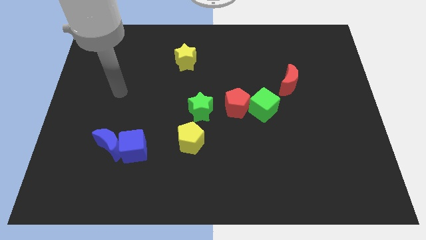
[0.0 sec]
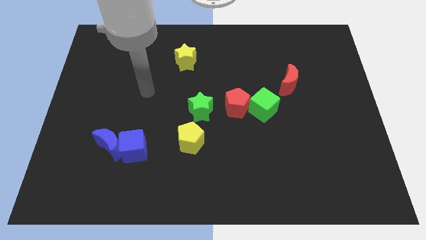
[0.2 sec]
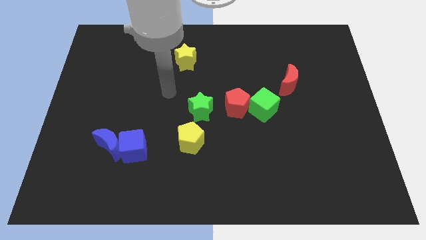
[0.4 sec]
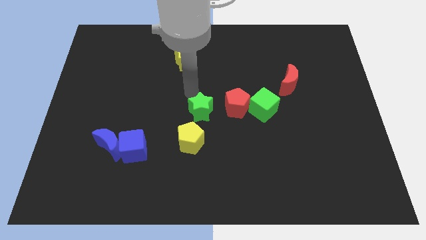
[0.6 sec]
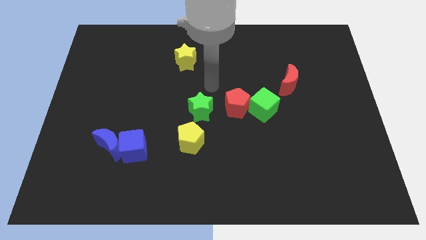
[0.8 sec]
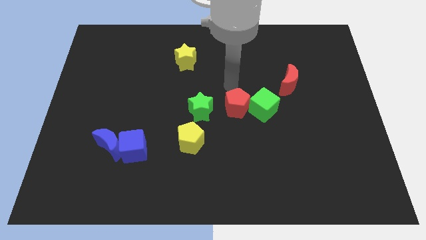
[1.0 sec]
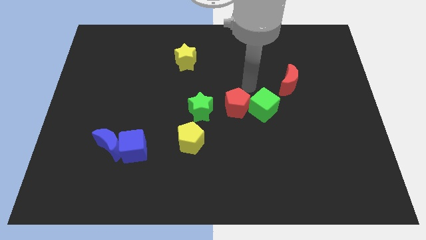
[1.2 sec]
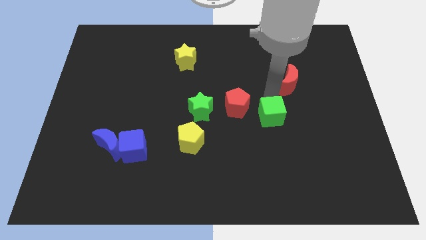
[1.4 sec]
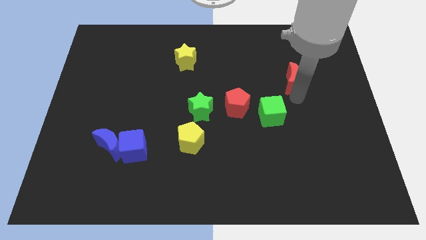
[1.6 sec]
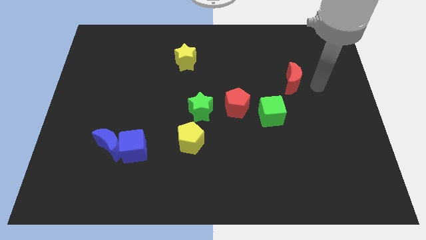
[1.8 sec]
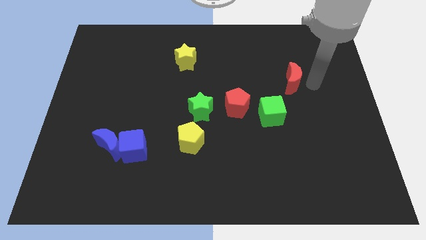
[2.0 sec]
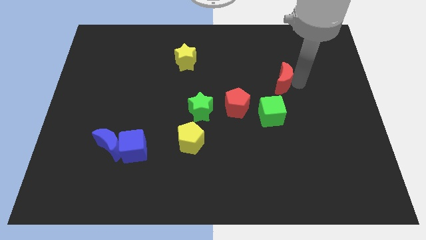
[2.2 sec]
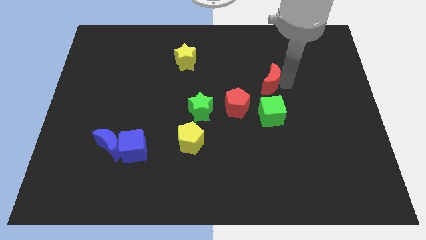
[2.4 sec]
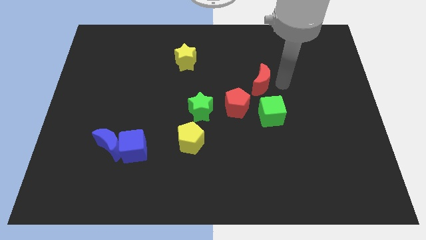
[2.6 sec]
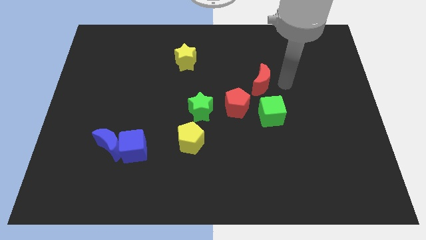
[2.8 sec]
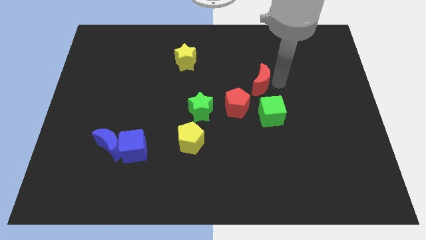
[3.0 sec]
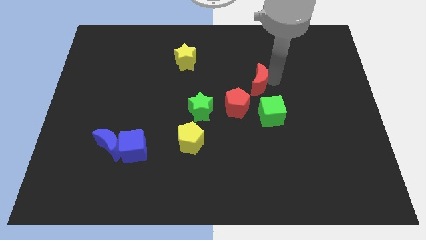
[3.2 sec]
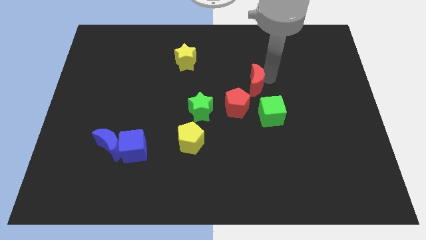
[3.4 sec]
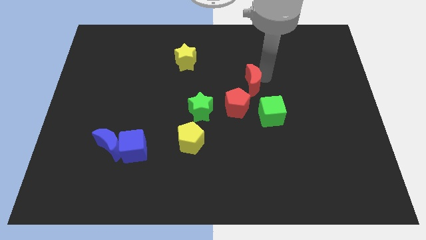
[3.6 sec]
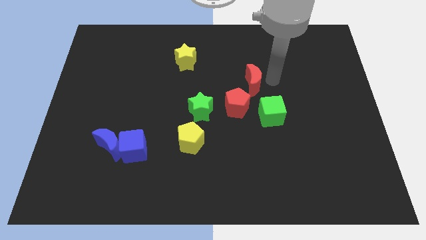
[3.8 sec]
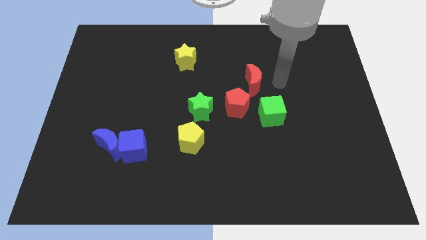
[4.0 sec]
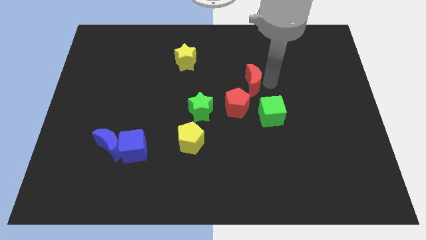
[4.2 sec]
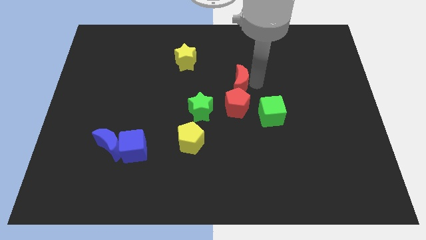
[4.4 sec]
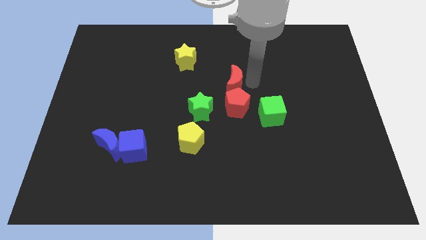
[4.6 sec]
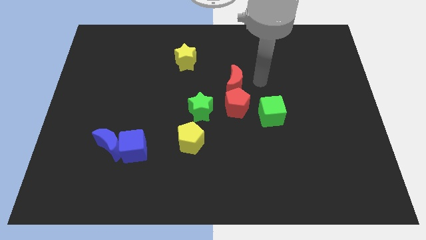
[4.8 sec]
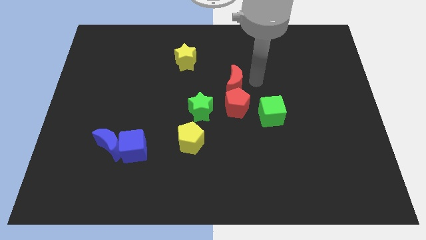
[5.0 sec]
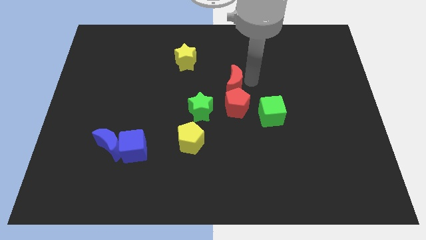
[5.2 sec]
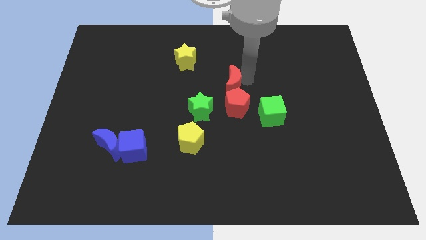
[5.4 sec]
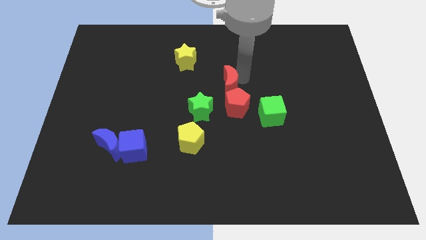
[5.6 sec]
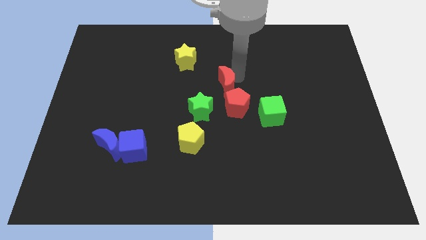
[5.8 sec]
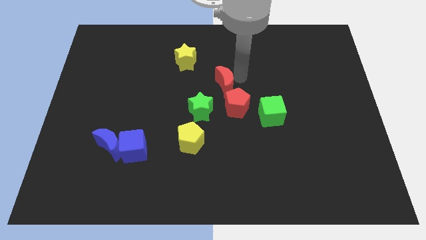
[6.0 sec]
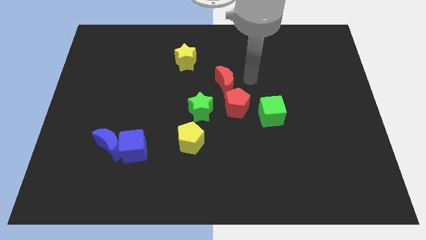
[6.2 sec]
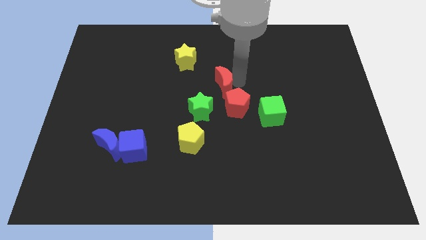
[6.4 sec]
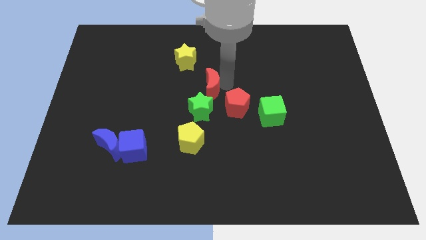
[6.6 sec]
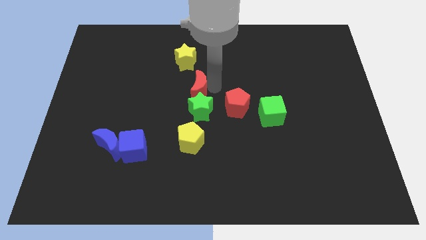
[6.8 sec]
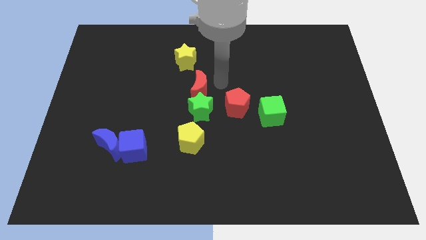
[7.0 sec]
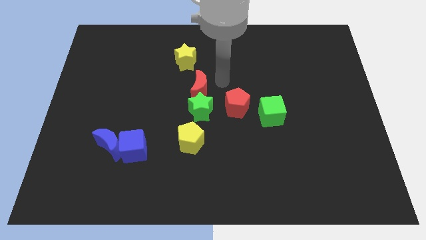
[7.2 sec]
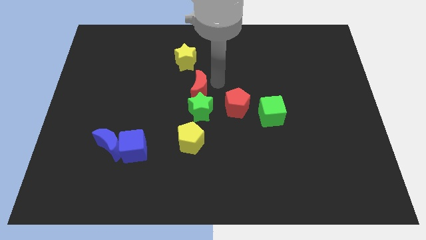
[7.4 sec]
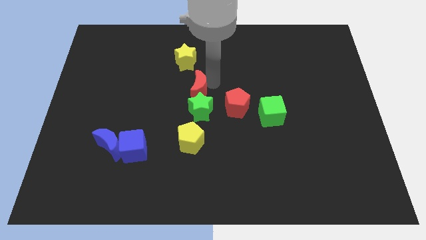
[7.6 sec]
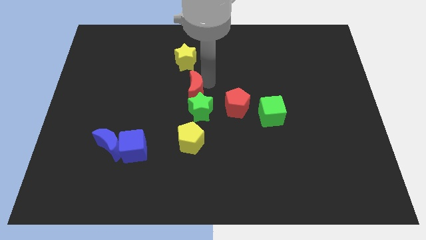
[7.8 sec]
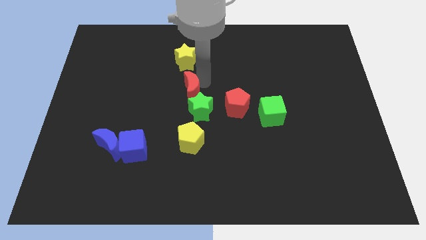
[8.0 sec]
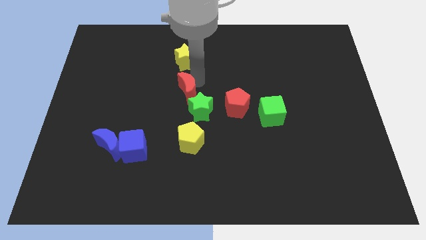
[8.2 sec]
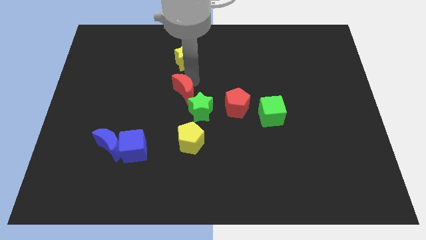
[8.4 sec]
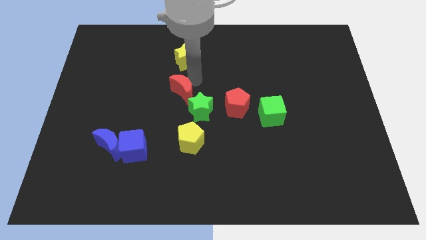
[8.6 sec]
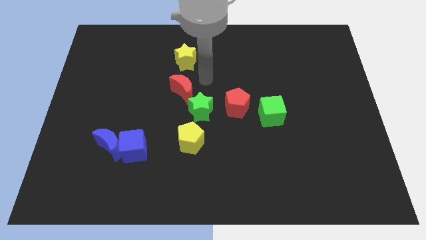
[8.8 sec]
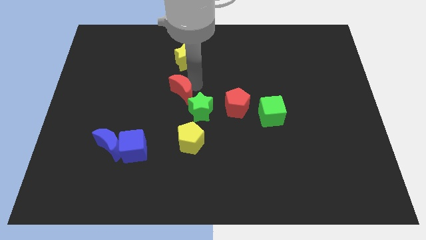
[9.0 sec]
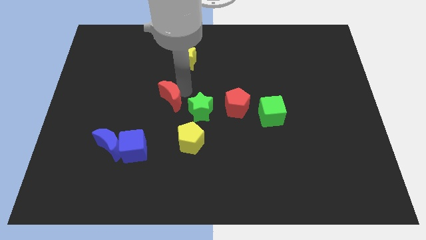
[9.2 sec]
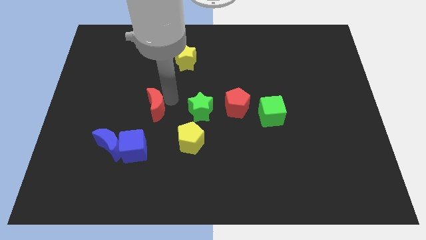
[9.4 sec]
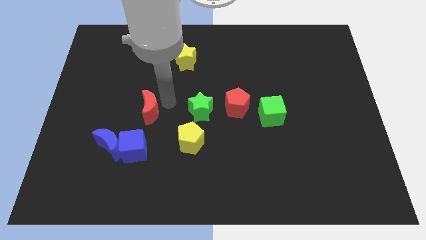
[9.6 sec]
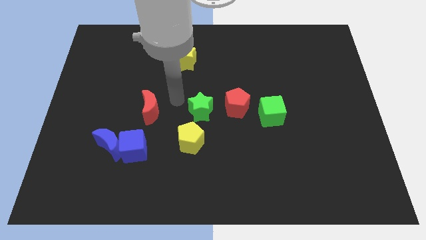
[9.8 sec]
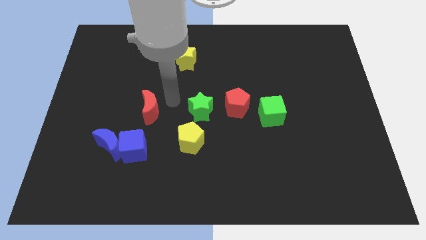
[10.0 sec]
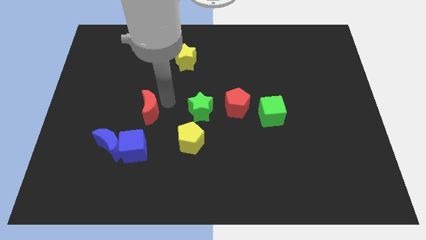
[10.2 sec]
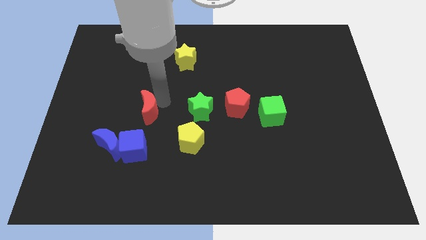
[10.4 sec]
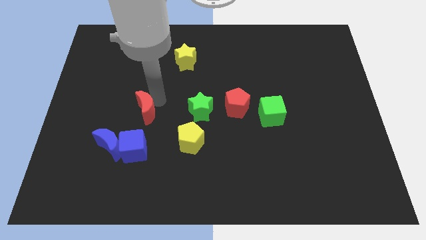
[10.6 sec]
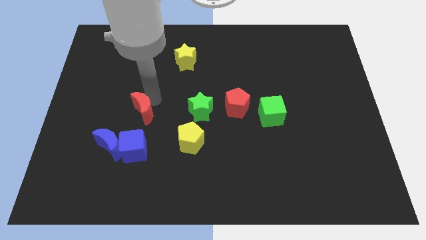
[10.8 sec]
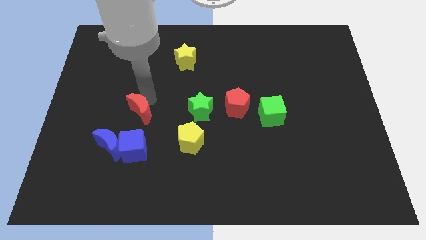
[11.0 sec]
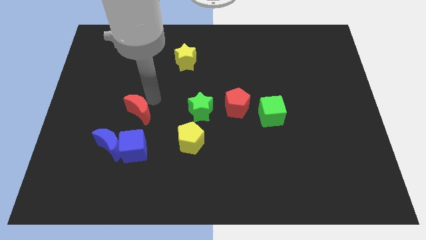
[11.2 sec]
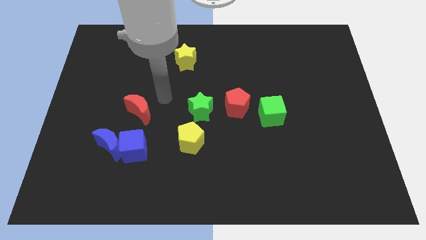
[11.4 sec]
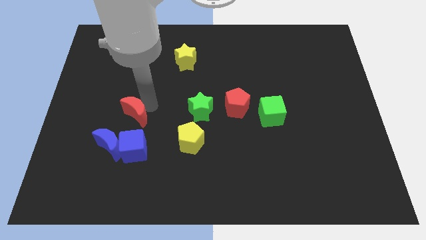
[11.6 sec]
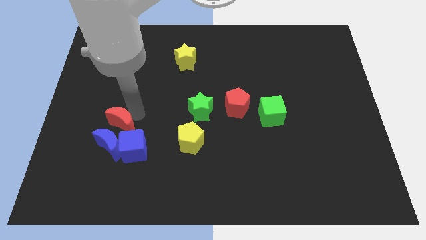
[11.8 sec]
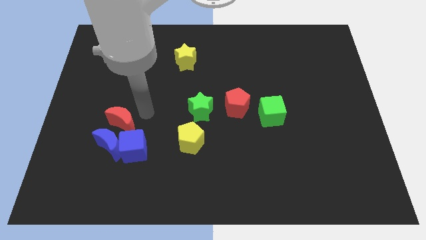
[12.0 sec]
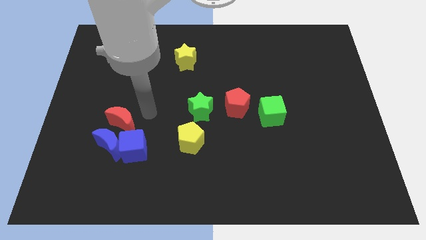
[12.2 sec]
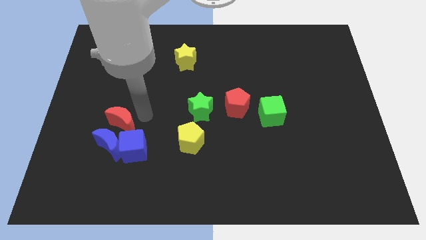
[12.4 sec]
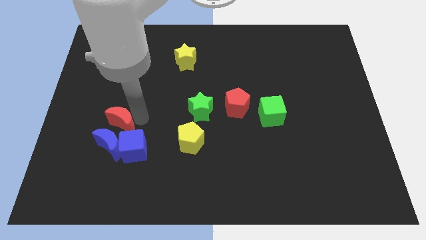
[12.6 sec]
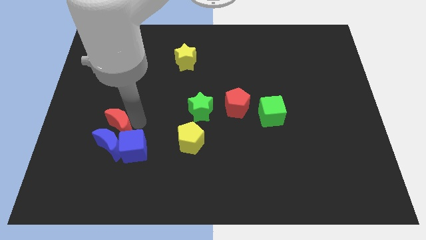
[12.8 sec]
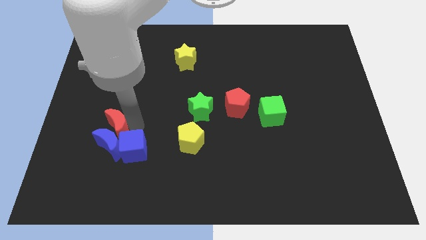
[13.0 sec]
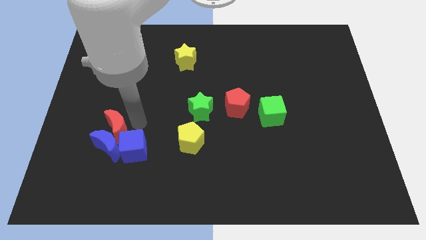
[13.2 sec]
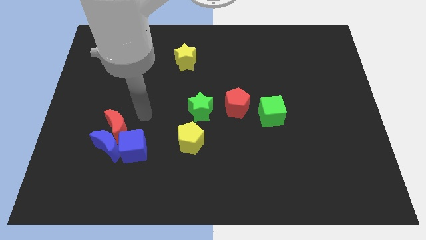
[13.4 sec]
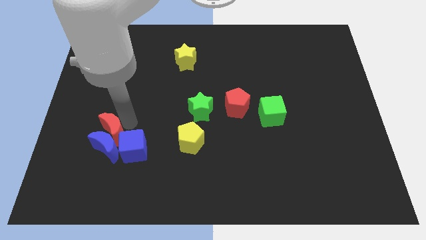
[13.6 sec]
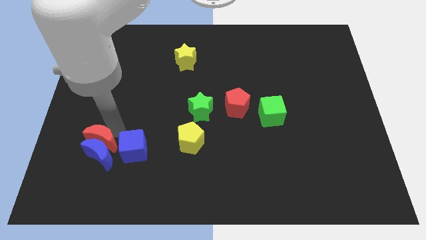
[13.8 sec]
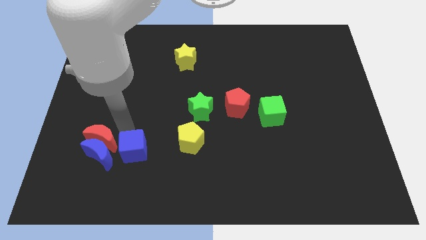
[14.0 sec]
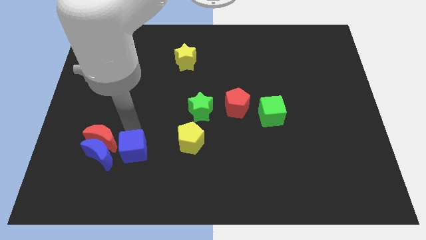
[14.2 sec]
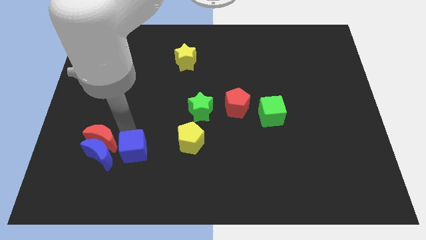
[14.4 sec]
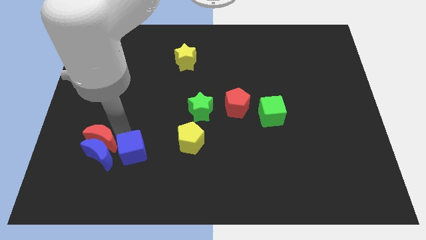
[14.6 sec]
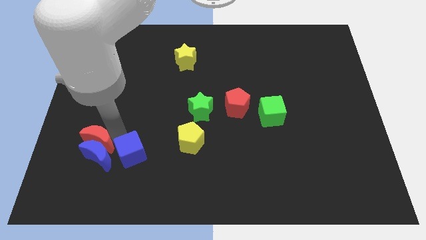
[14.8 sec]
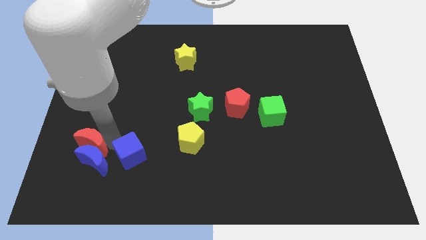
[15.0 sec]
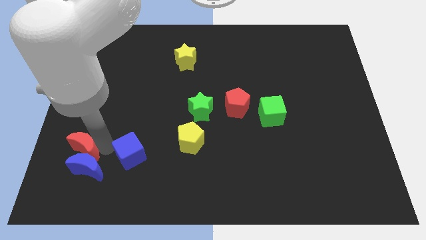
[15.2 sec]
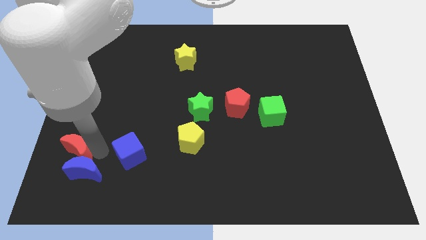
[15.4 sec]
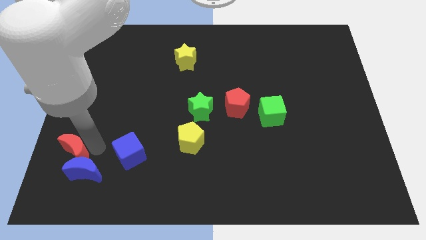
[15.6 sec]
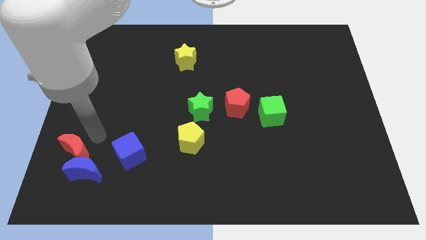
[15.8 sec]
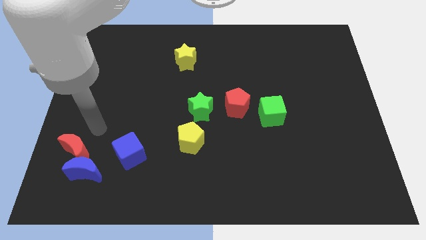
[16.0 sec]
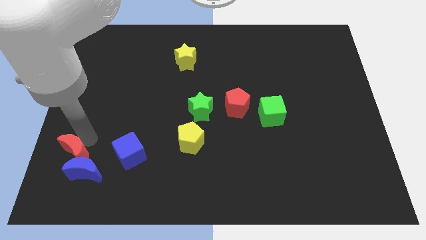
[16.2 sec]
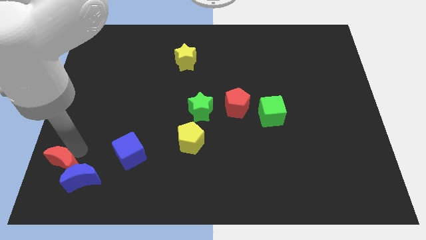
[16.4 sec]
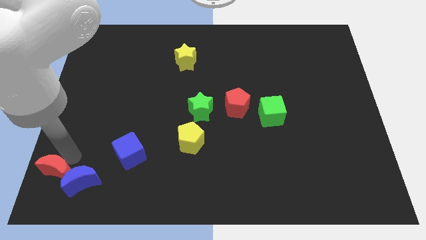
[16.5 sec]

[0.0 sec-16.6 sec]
slide the red moon to the bottom left
